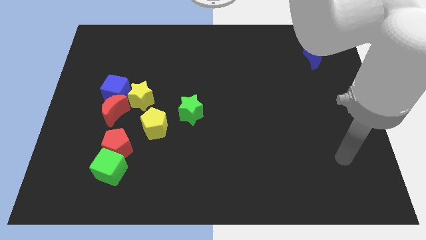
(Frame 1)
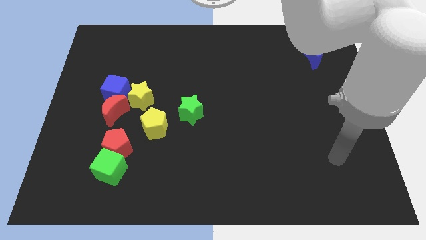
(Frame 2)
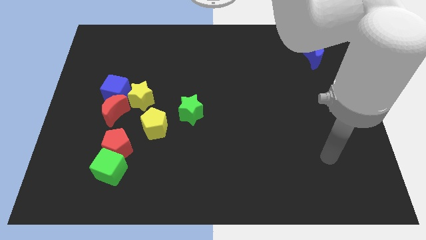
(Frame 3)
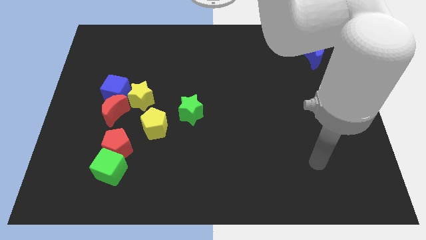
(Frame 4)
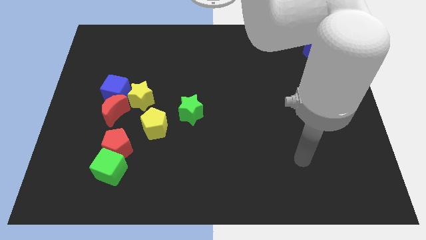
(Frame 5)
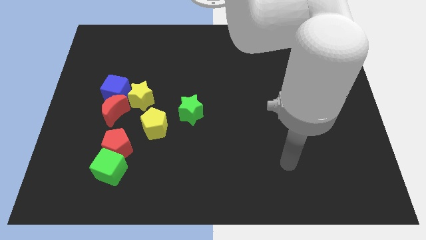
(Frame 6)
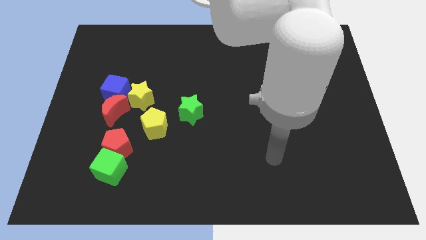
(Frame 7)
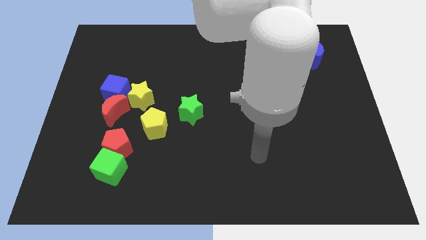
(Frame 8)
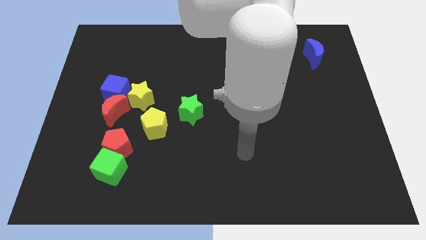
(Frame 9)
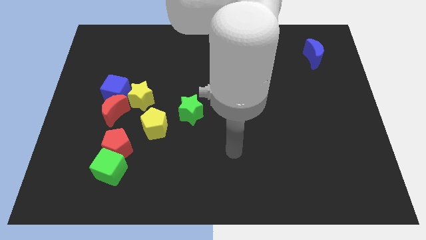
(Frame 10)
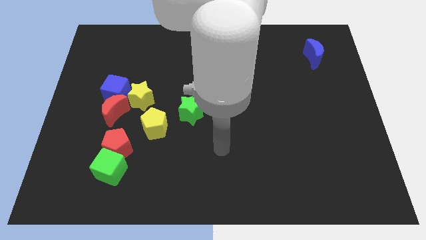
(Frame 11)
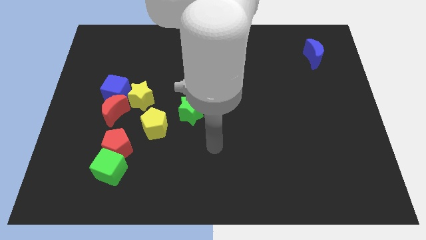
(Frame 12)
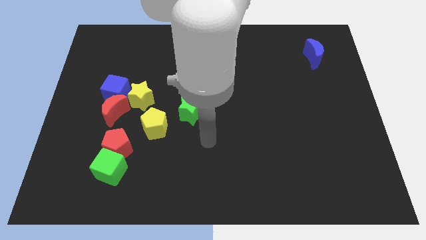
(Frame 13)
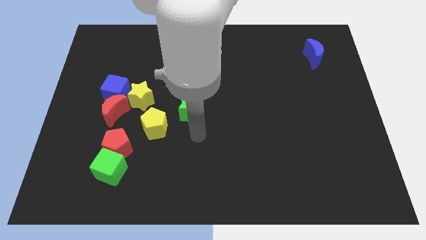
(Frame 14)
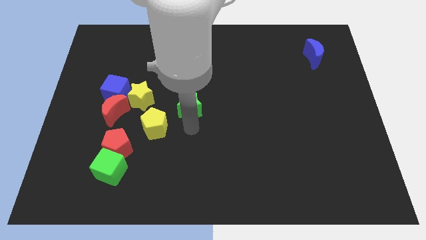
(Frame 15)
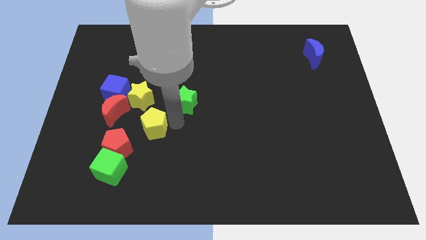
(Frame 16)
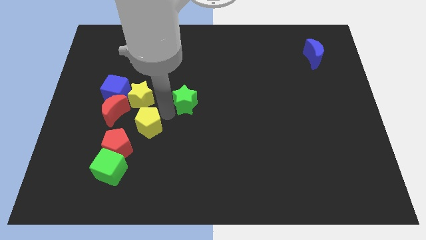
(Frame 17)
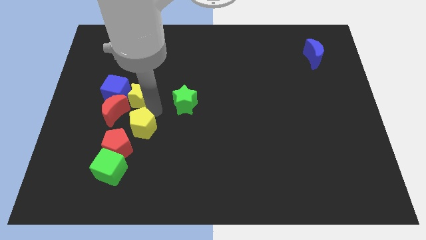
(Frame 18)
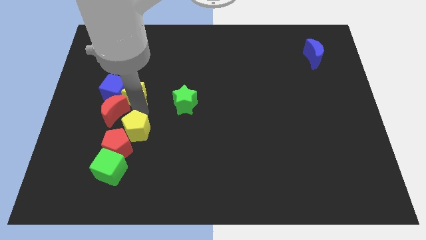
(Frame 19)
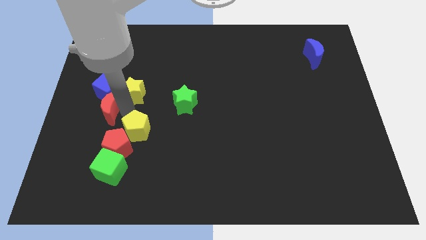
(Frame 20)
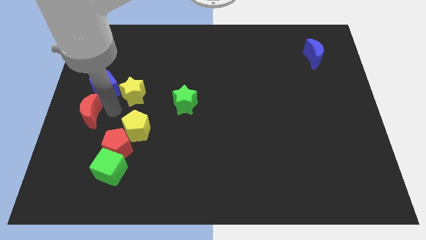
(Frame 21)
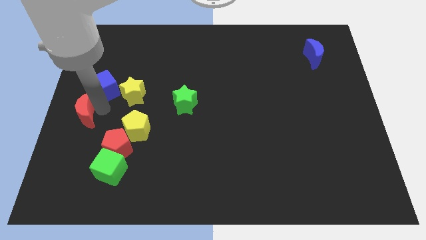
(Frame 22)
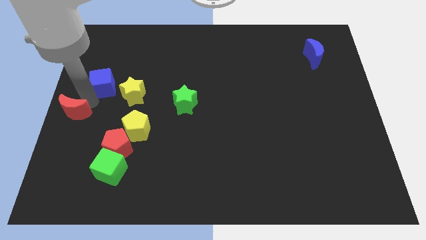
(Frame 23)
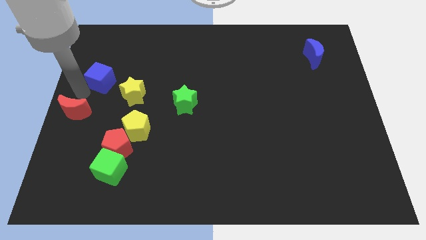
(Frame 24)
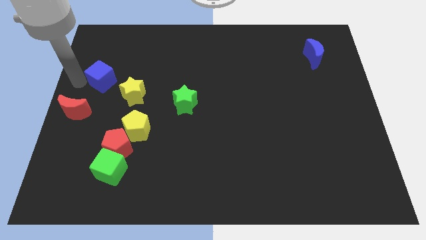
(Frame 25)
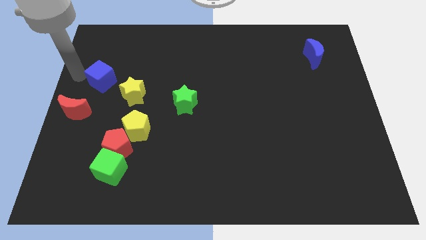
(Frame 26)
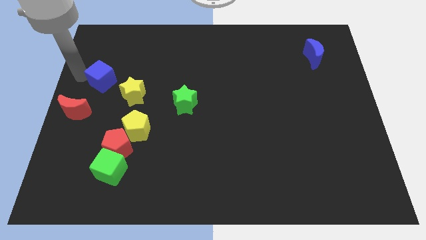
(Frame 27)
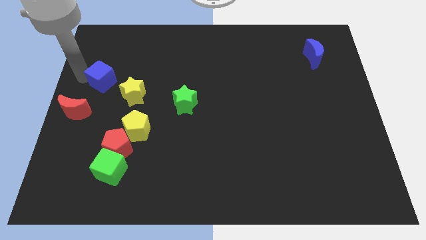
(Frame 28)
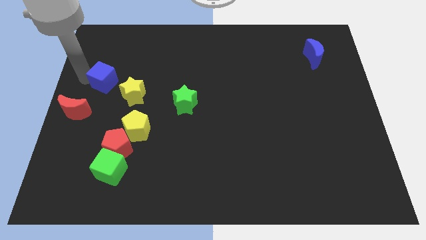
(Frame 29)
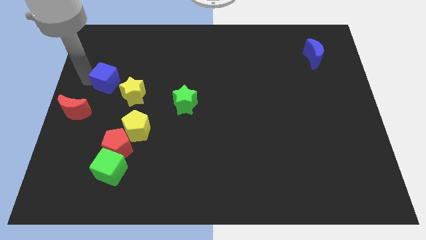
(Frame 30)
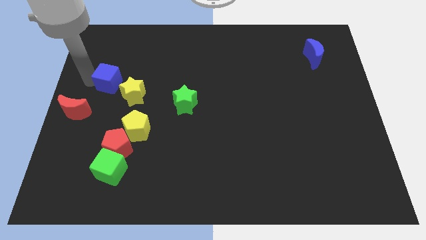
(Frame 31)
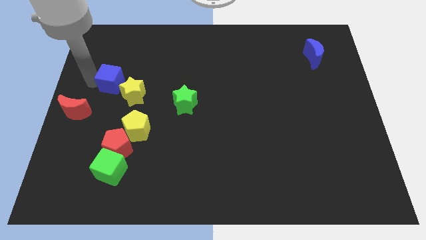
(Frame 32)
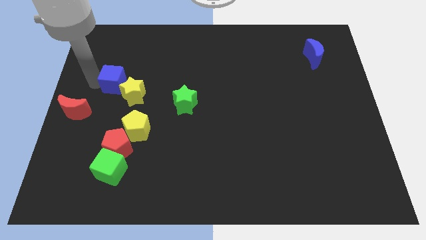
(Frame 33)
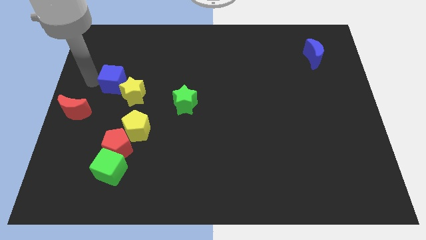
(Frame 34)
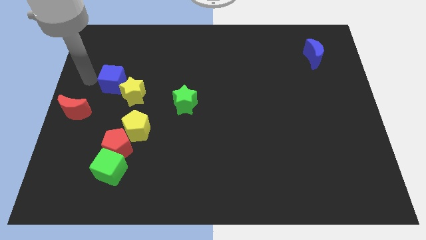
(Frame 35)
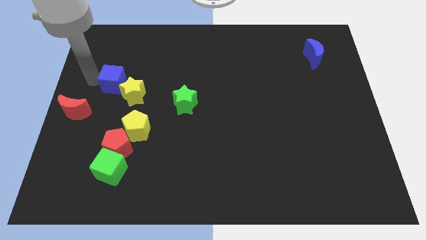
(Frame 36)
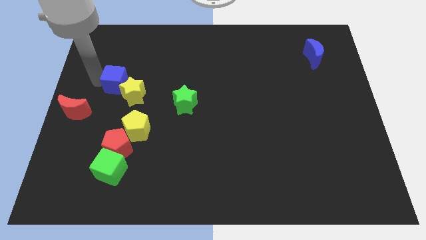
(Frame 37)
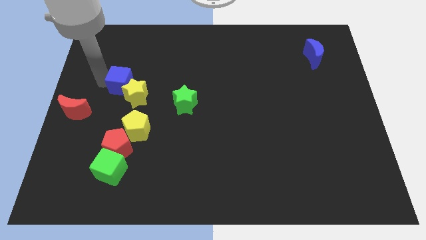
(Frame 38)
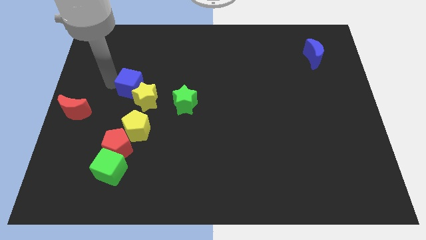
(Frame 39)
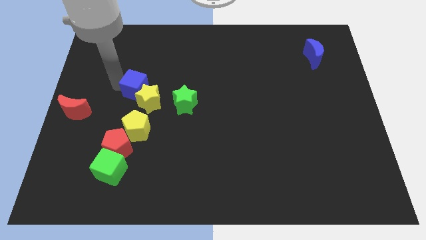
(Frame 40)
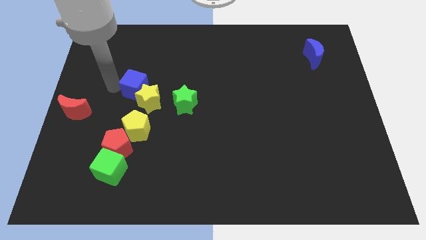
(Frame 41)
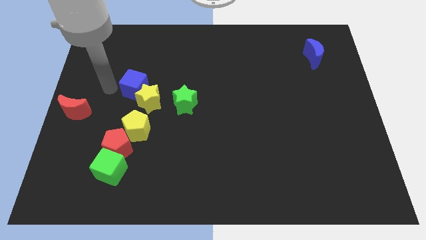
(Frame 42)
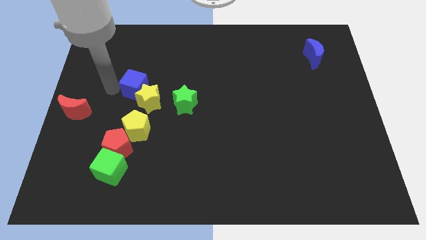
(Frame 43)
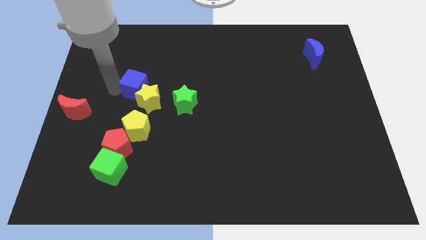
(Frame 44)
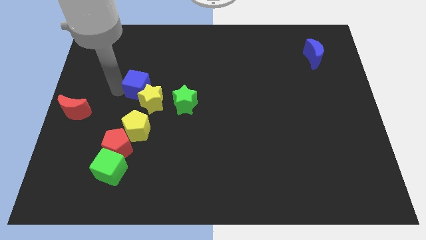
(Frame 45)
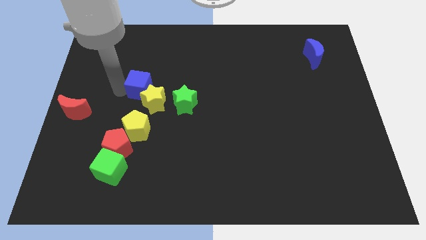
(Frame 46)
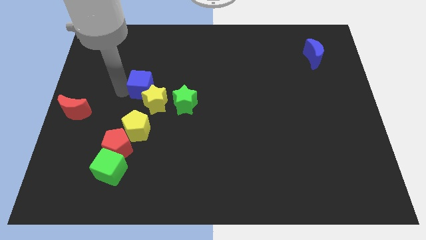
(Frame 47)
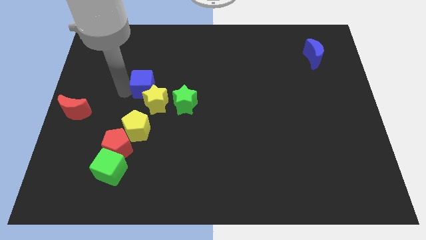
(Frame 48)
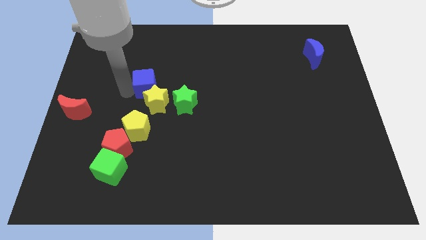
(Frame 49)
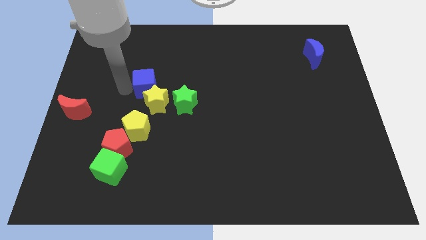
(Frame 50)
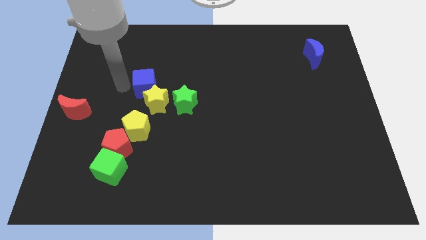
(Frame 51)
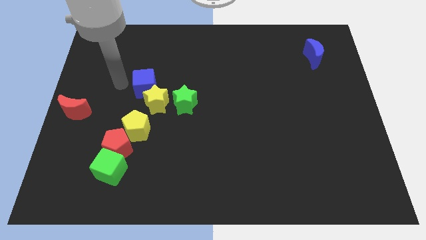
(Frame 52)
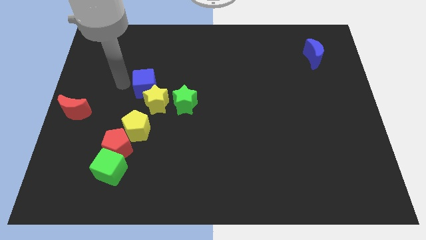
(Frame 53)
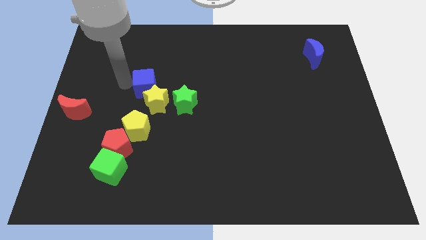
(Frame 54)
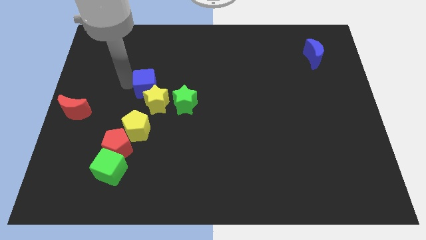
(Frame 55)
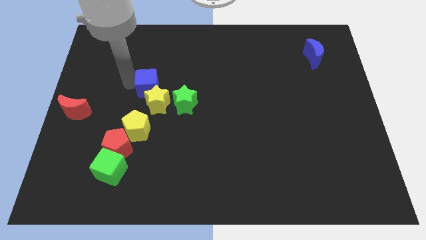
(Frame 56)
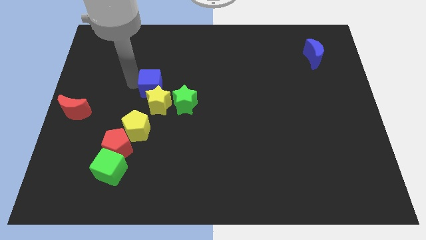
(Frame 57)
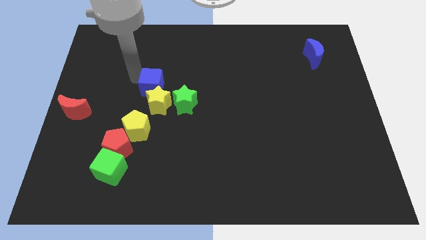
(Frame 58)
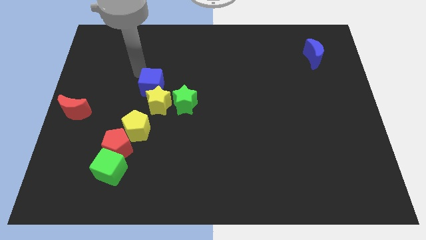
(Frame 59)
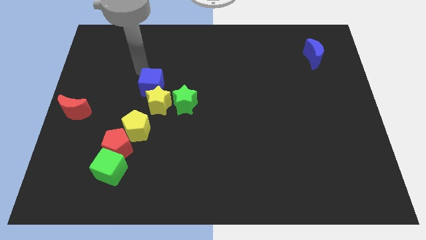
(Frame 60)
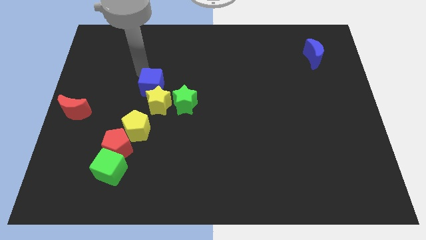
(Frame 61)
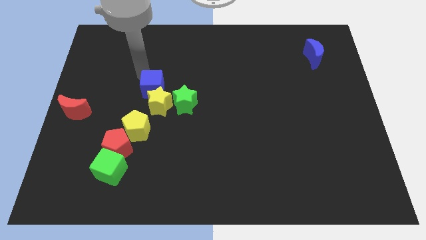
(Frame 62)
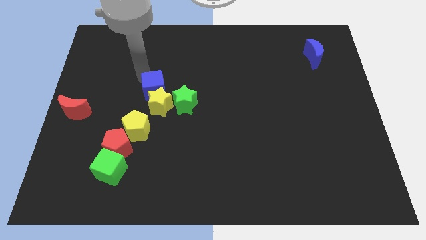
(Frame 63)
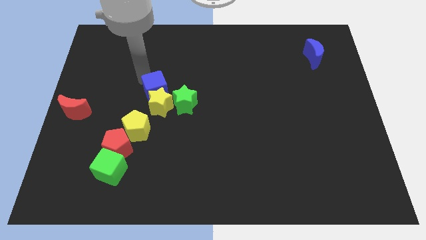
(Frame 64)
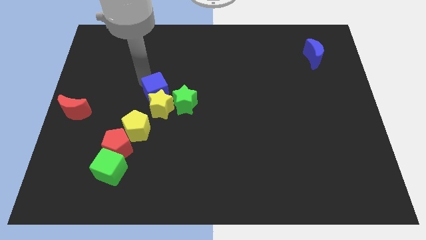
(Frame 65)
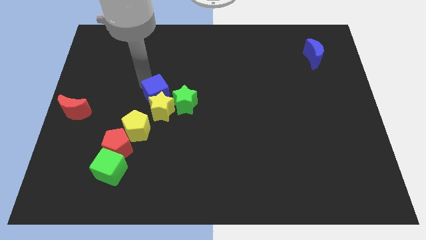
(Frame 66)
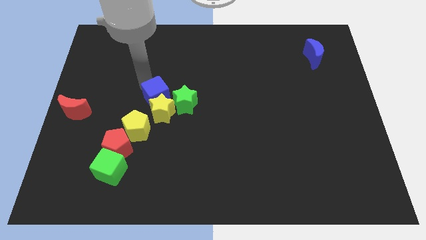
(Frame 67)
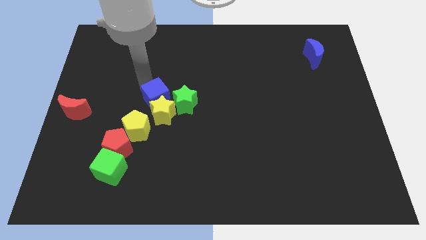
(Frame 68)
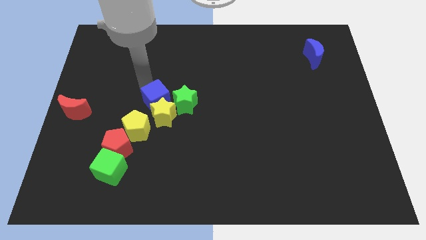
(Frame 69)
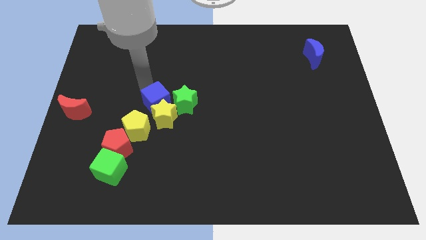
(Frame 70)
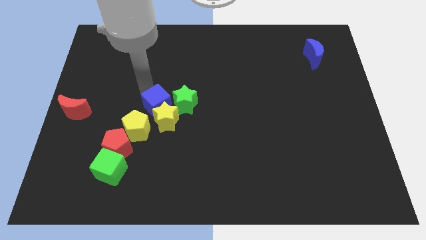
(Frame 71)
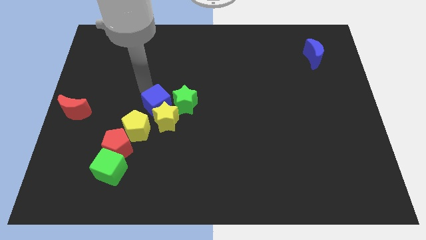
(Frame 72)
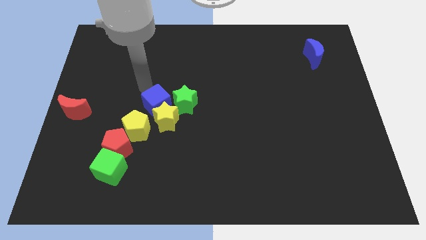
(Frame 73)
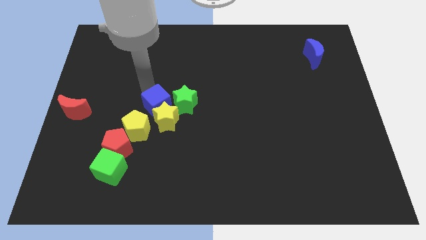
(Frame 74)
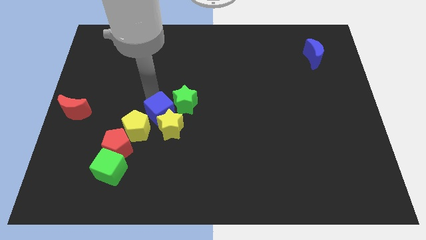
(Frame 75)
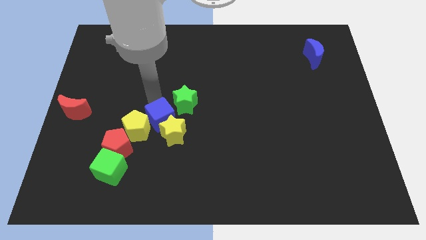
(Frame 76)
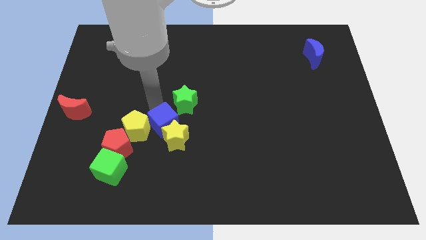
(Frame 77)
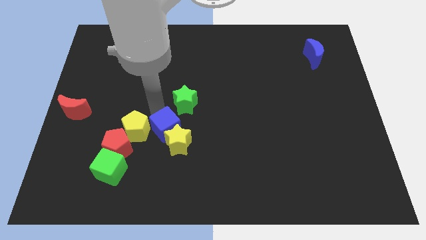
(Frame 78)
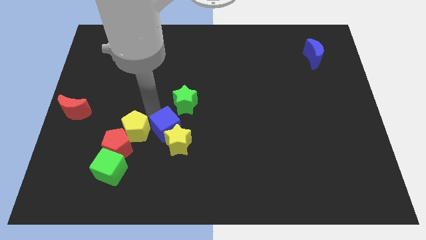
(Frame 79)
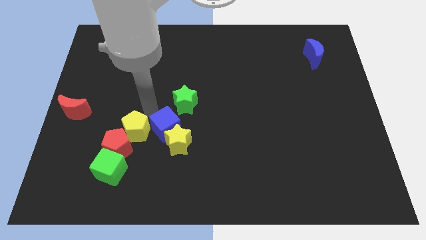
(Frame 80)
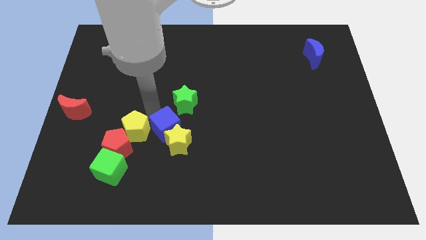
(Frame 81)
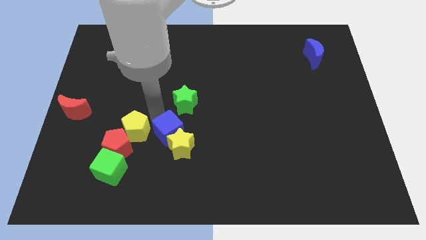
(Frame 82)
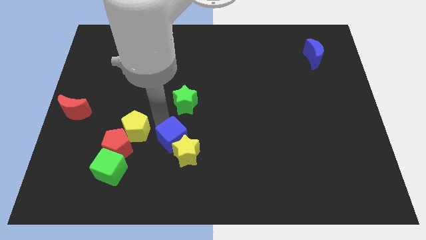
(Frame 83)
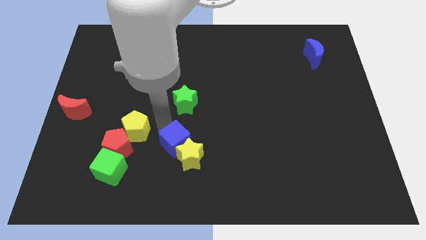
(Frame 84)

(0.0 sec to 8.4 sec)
push the blue cube downwards and to the right diagonally
